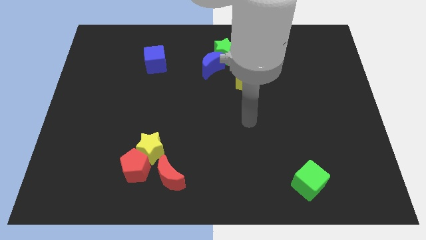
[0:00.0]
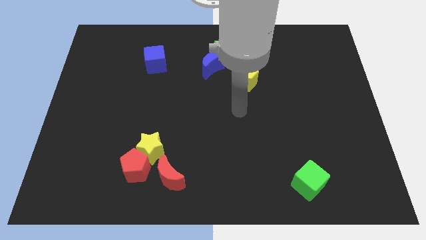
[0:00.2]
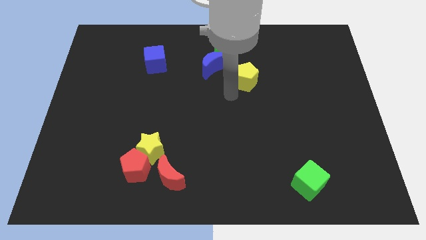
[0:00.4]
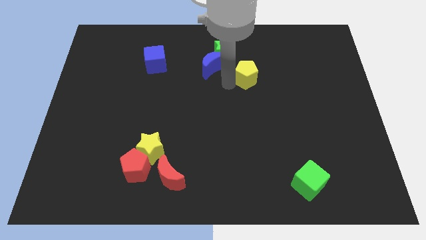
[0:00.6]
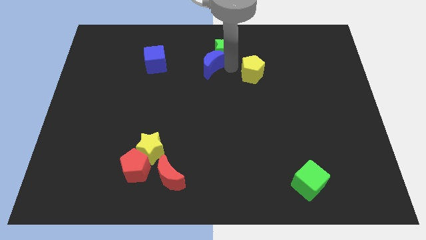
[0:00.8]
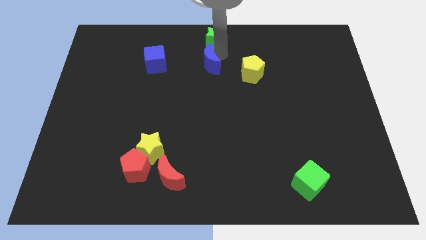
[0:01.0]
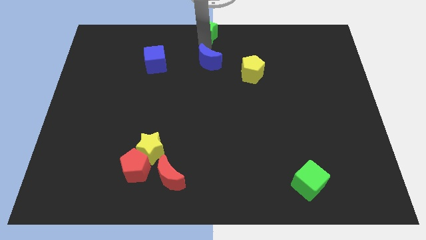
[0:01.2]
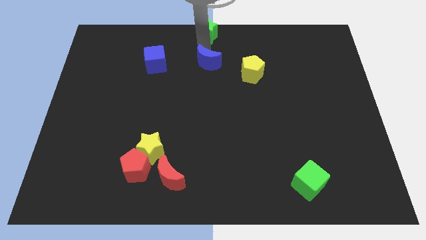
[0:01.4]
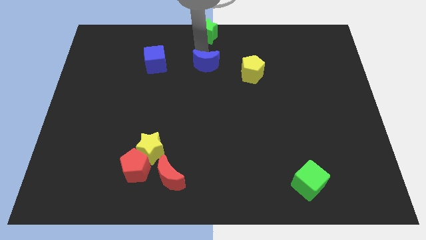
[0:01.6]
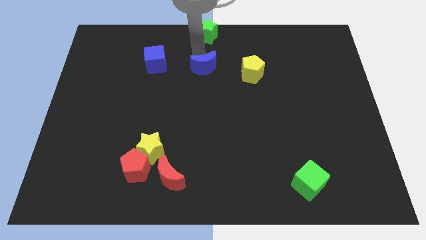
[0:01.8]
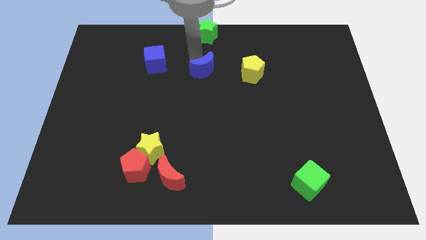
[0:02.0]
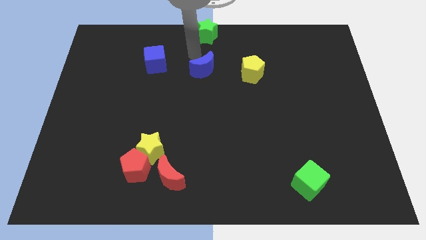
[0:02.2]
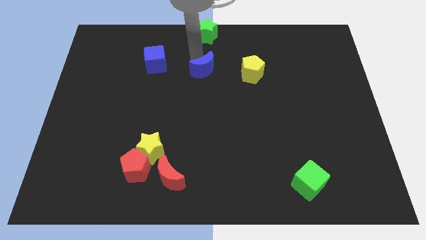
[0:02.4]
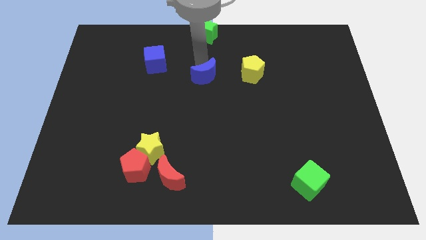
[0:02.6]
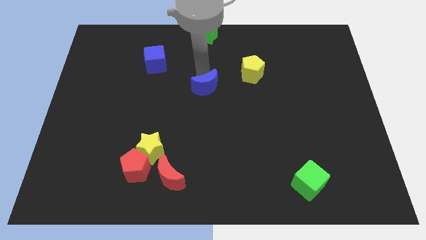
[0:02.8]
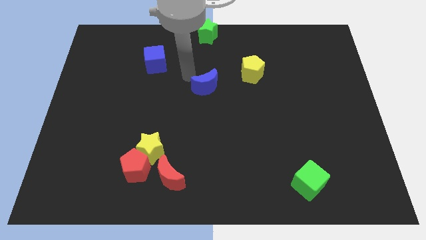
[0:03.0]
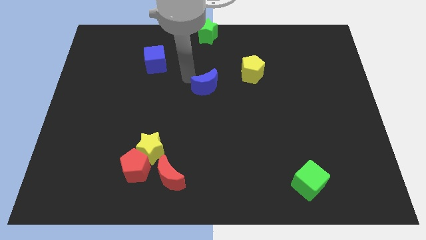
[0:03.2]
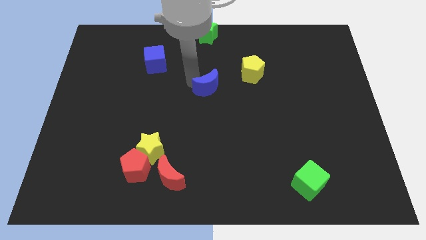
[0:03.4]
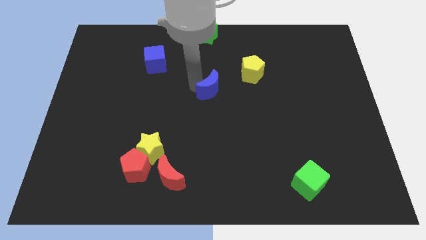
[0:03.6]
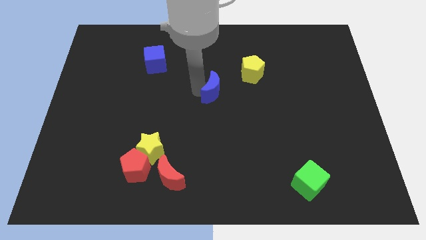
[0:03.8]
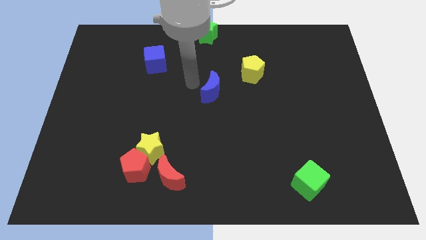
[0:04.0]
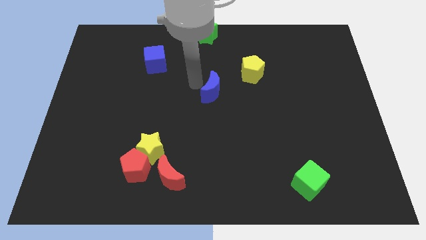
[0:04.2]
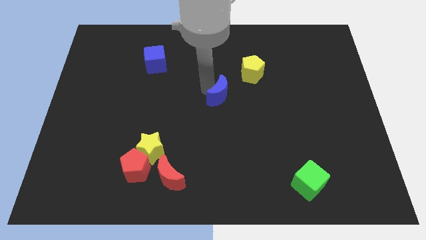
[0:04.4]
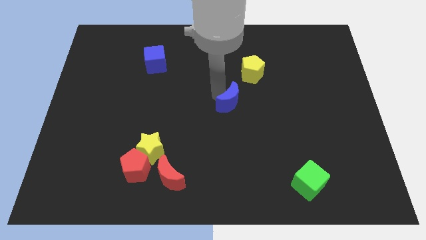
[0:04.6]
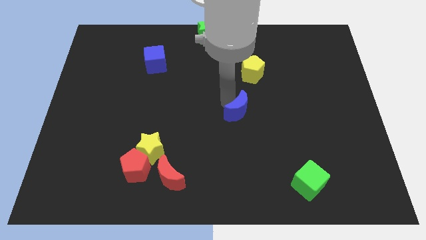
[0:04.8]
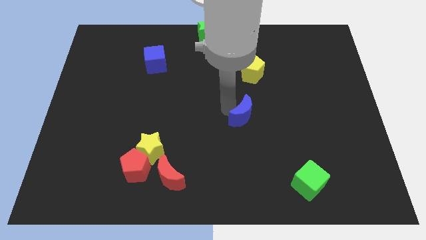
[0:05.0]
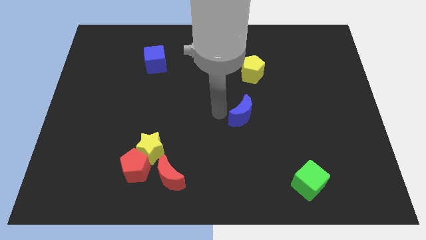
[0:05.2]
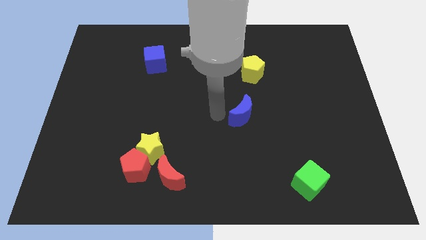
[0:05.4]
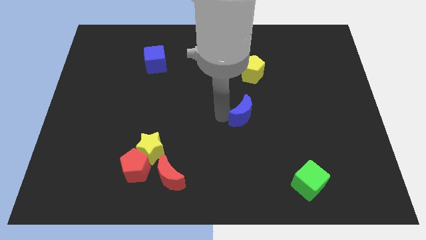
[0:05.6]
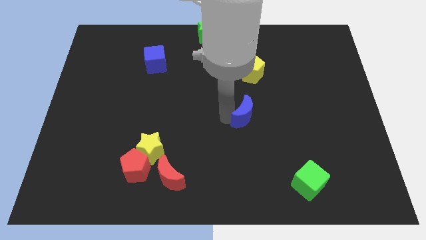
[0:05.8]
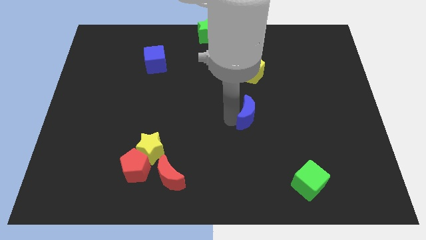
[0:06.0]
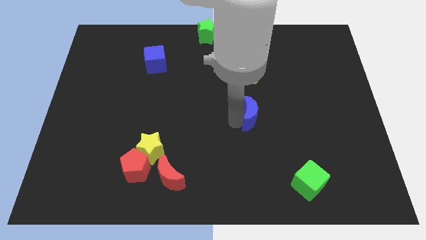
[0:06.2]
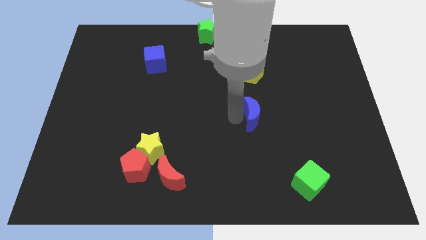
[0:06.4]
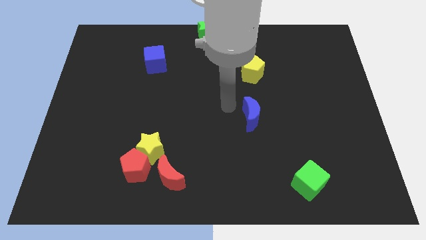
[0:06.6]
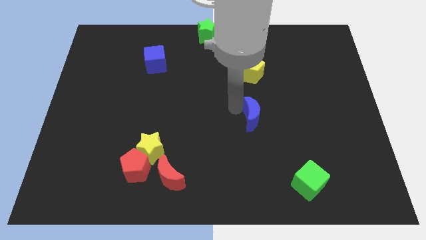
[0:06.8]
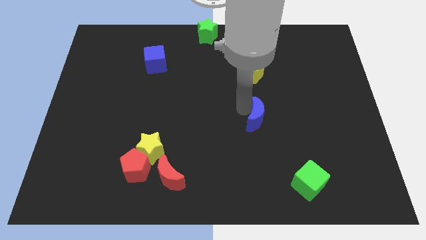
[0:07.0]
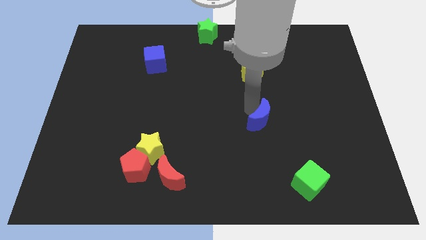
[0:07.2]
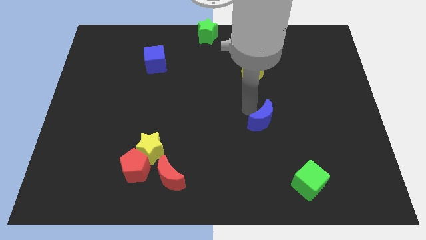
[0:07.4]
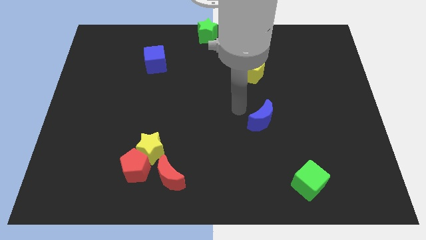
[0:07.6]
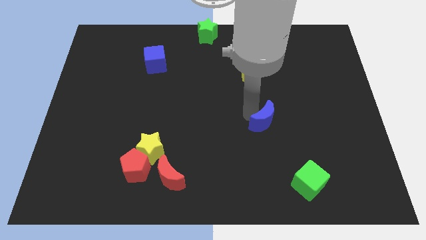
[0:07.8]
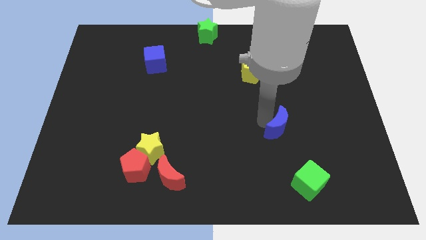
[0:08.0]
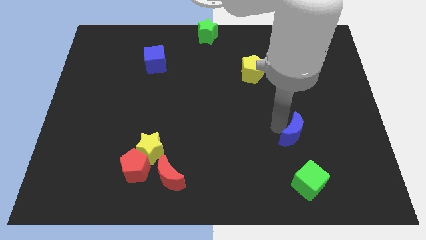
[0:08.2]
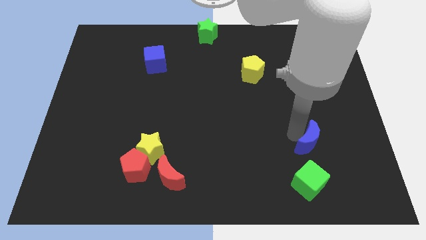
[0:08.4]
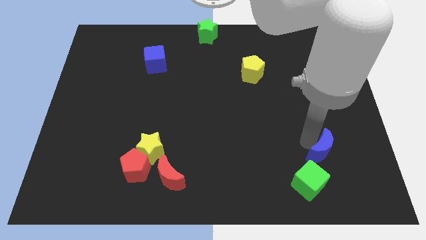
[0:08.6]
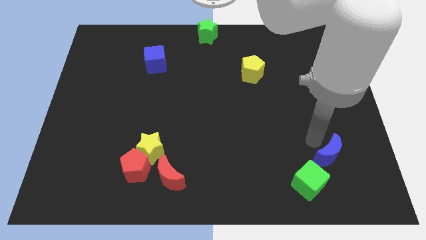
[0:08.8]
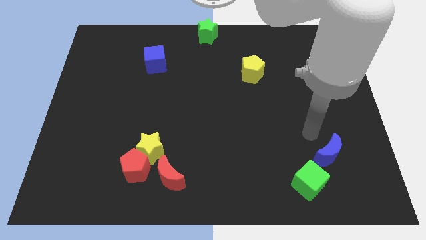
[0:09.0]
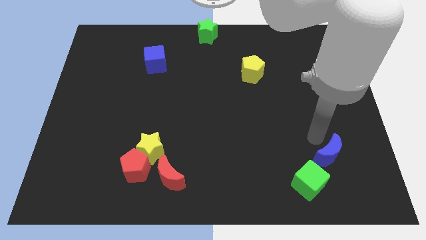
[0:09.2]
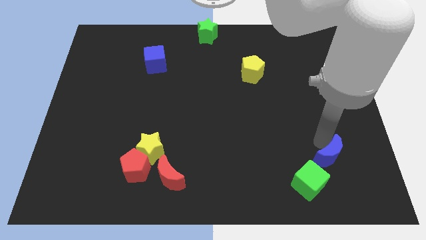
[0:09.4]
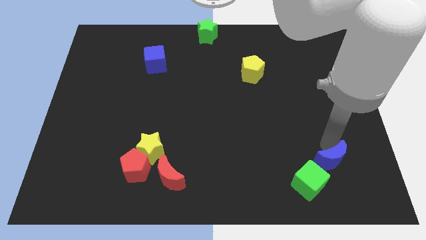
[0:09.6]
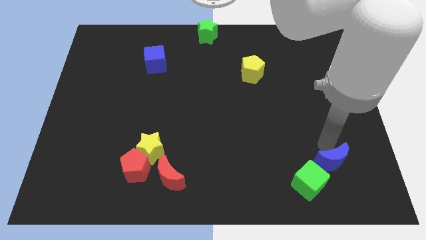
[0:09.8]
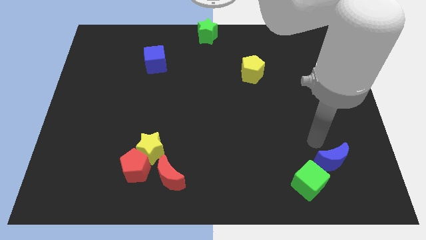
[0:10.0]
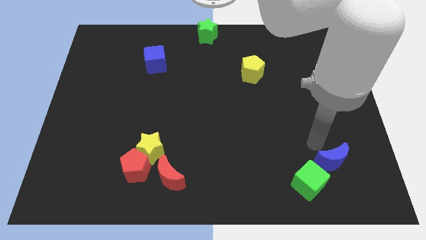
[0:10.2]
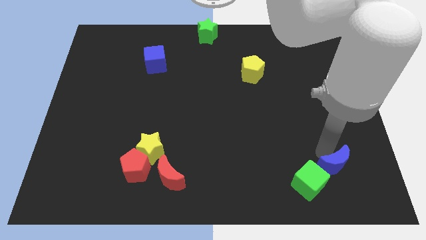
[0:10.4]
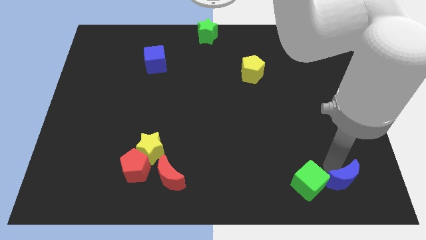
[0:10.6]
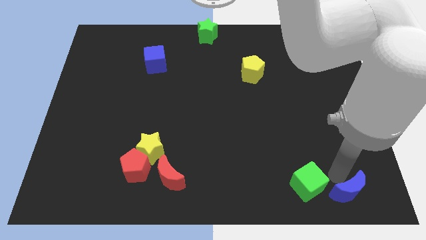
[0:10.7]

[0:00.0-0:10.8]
move the blue moon to the lower right corner
